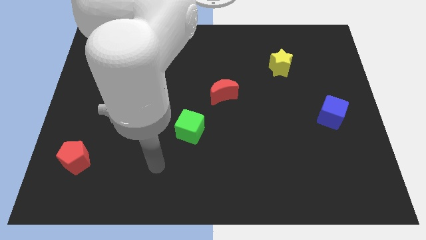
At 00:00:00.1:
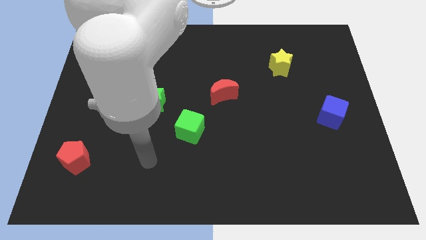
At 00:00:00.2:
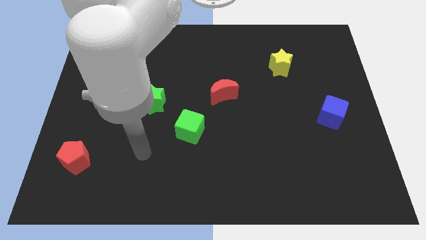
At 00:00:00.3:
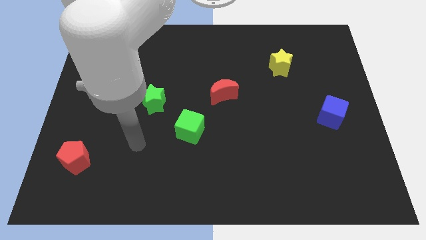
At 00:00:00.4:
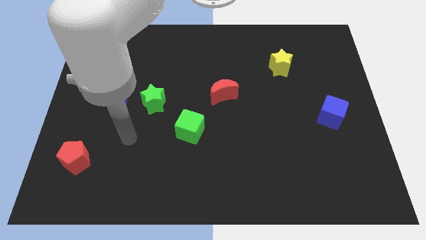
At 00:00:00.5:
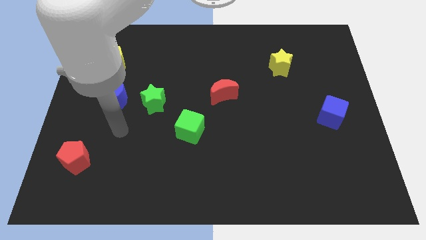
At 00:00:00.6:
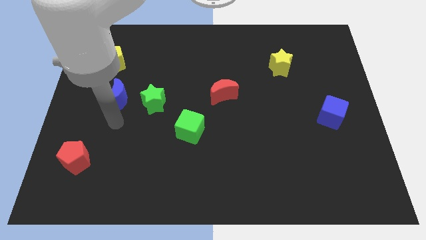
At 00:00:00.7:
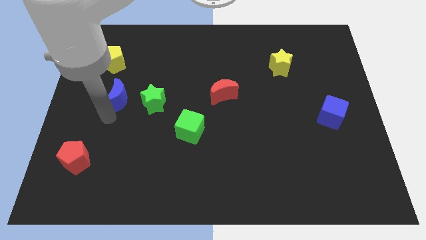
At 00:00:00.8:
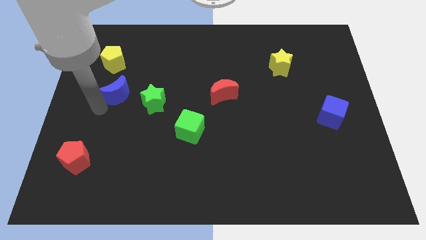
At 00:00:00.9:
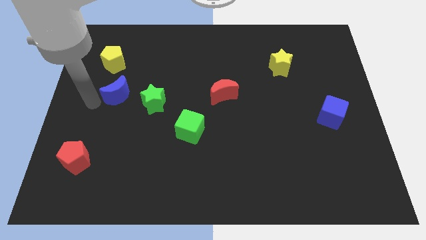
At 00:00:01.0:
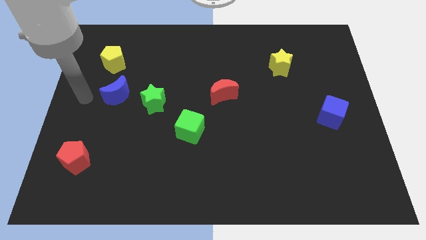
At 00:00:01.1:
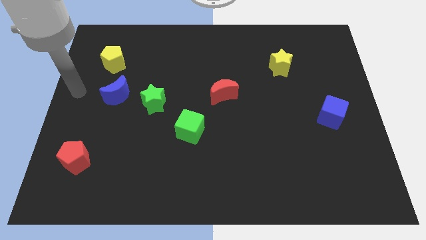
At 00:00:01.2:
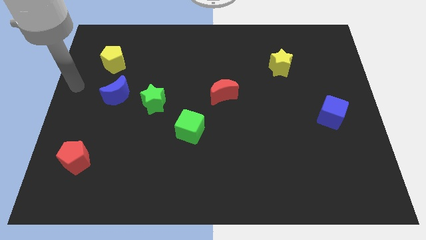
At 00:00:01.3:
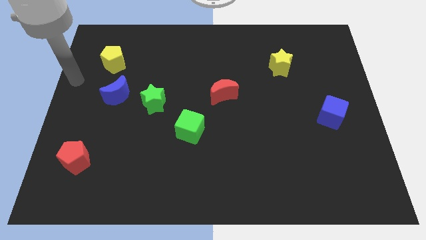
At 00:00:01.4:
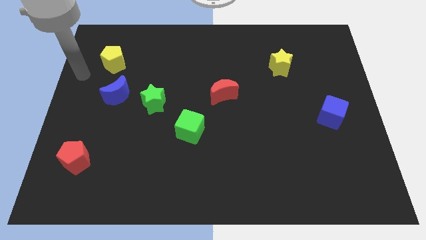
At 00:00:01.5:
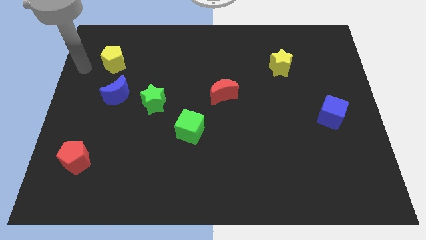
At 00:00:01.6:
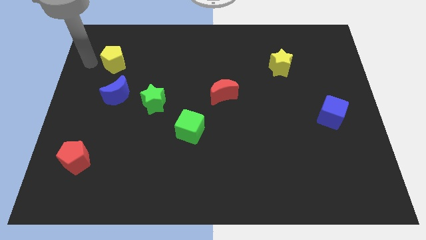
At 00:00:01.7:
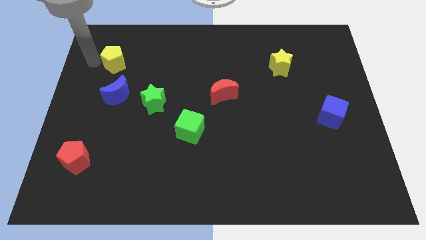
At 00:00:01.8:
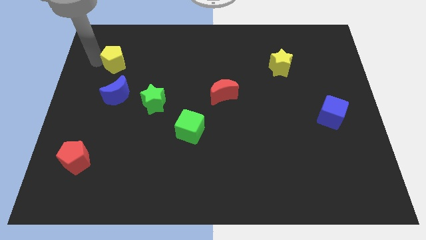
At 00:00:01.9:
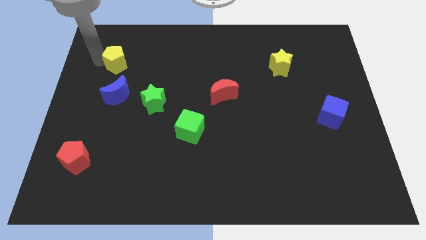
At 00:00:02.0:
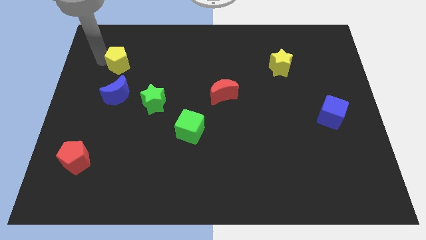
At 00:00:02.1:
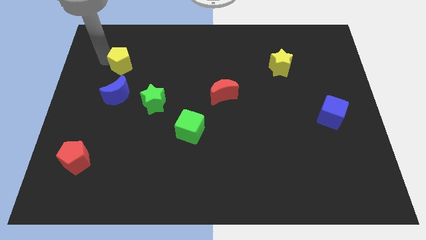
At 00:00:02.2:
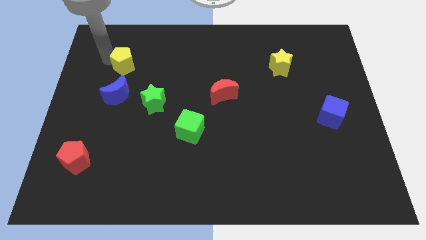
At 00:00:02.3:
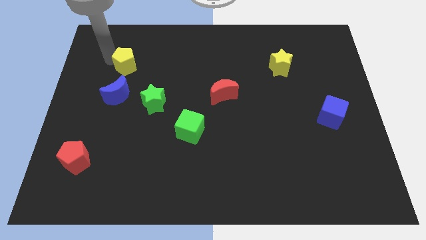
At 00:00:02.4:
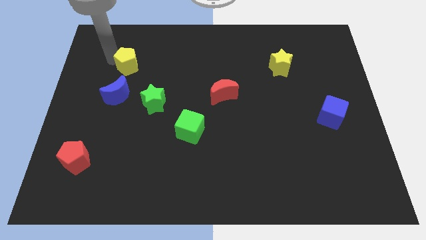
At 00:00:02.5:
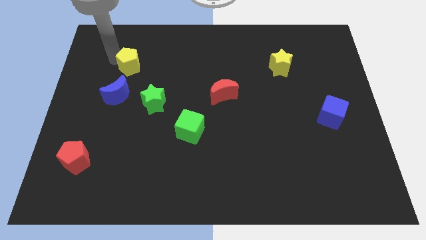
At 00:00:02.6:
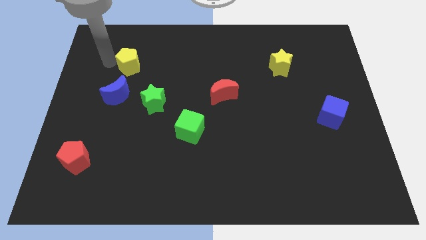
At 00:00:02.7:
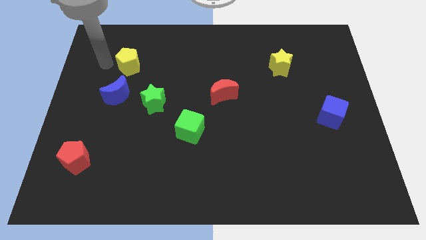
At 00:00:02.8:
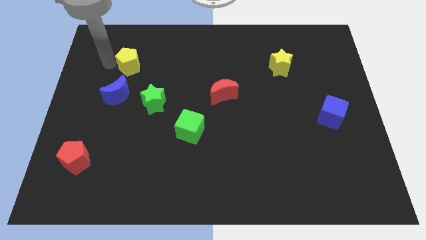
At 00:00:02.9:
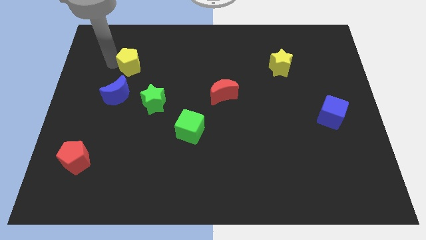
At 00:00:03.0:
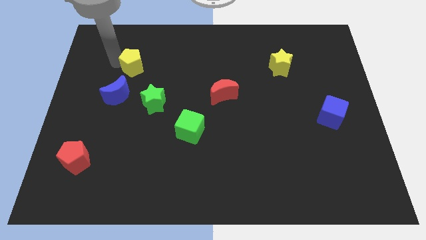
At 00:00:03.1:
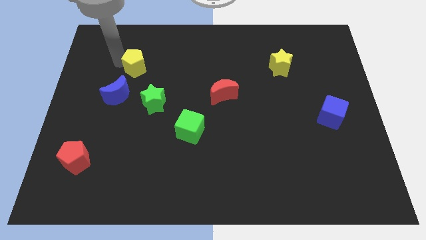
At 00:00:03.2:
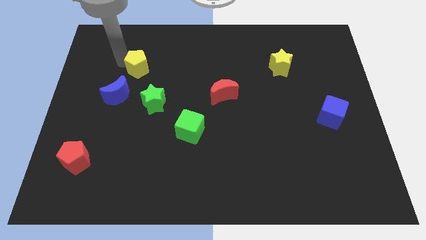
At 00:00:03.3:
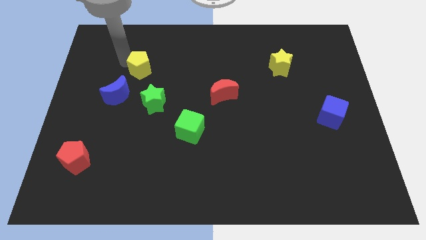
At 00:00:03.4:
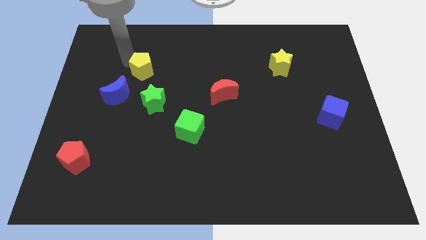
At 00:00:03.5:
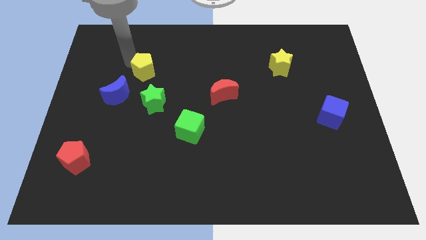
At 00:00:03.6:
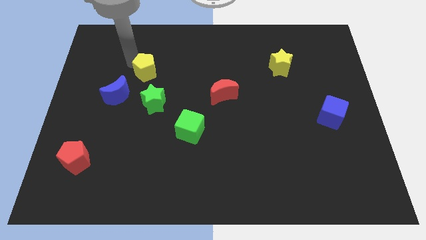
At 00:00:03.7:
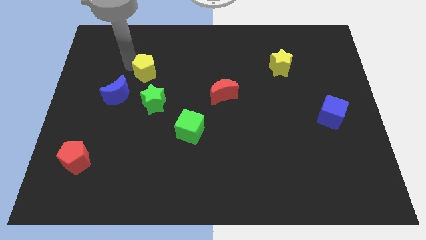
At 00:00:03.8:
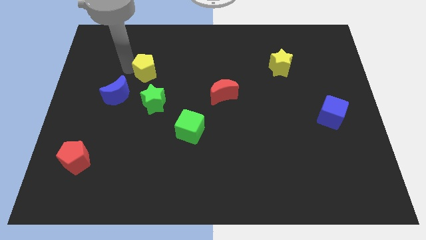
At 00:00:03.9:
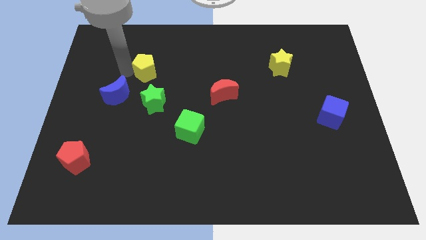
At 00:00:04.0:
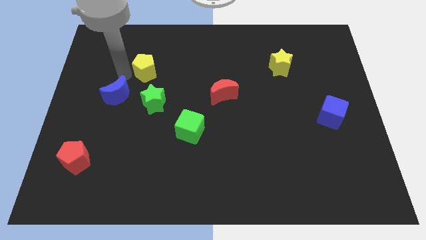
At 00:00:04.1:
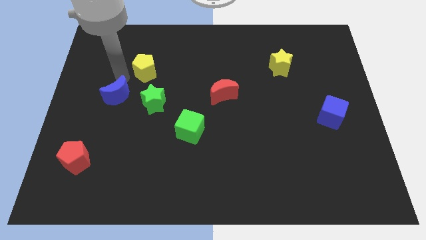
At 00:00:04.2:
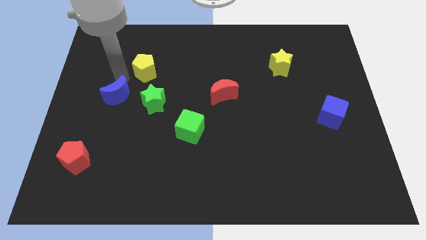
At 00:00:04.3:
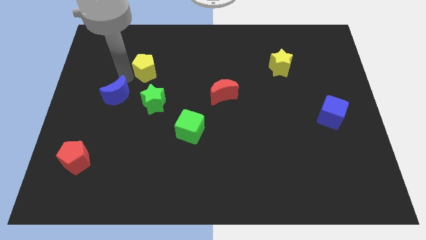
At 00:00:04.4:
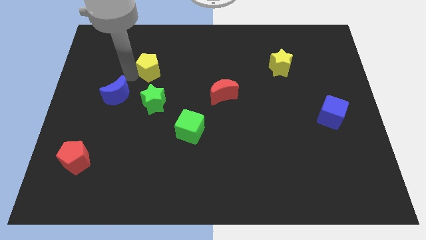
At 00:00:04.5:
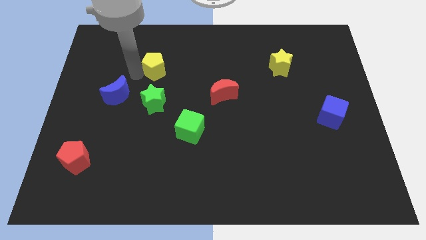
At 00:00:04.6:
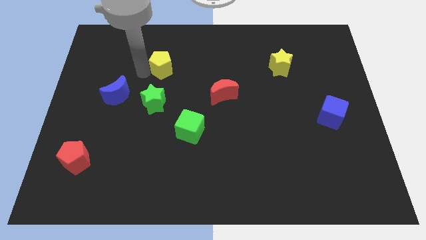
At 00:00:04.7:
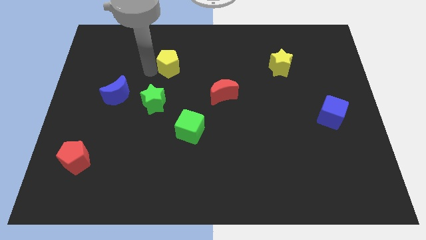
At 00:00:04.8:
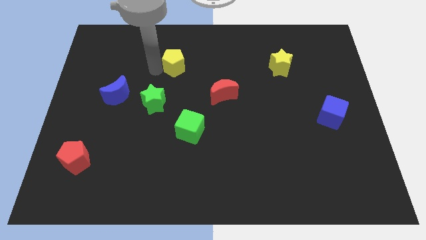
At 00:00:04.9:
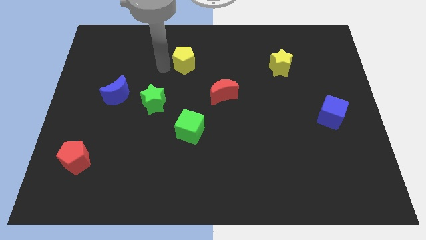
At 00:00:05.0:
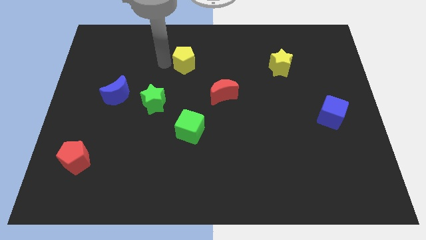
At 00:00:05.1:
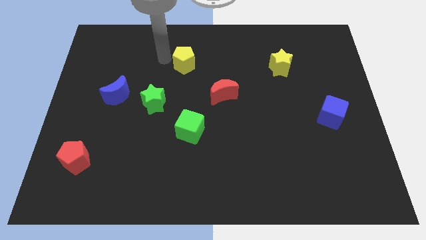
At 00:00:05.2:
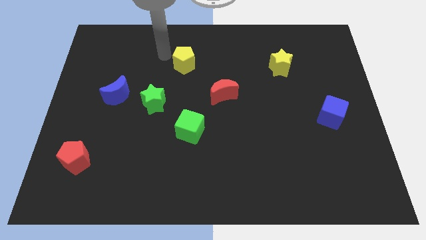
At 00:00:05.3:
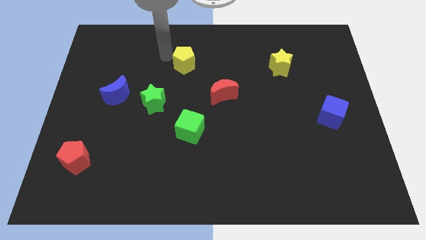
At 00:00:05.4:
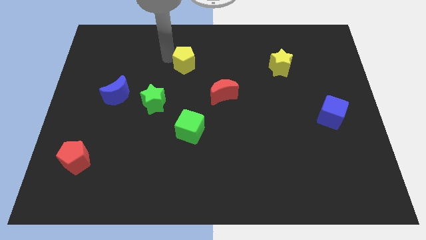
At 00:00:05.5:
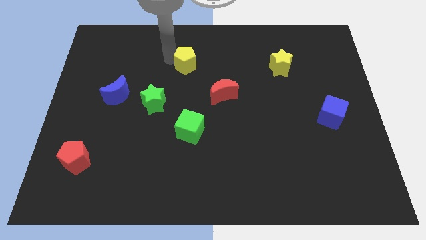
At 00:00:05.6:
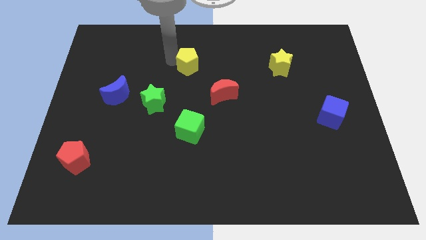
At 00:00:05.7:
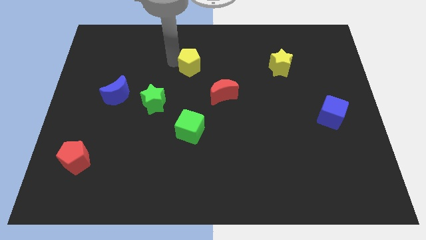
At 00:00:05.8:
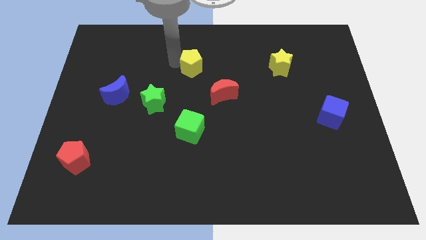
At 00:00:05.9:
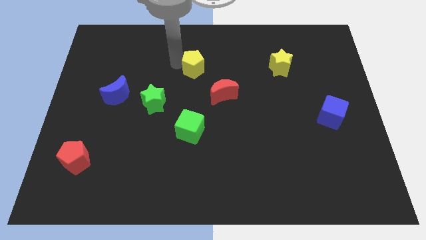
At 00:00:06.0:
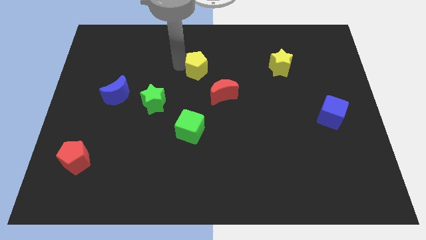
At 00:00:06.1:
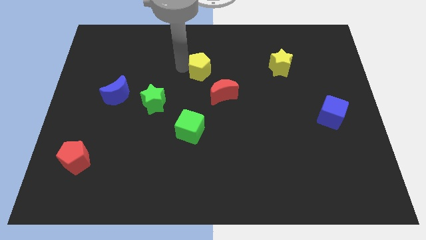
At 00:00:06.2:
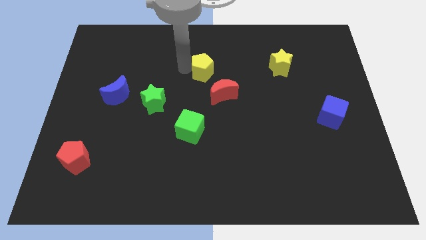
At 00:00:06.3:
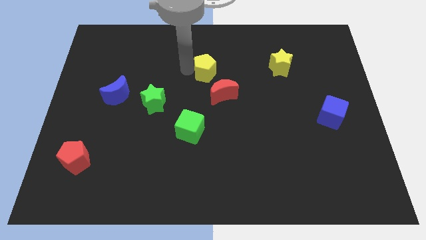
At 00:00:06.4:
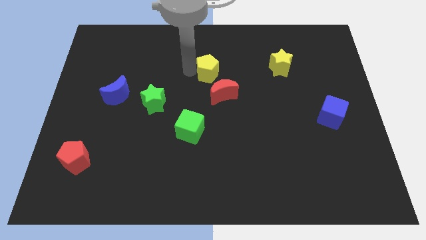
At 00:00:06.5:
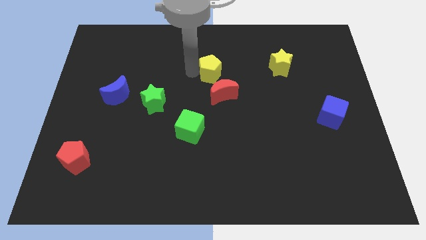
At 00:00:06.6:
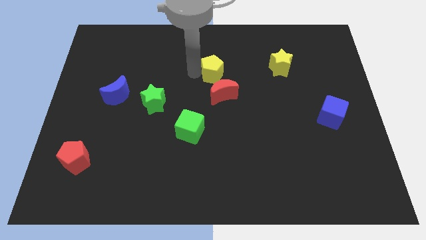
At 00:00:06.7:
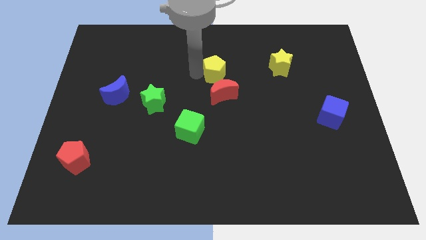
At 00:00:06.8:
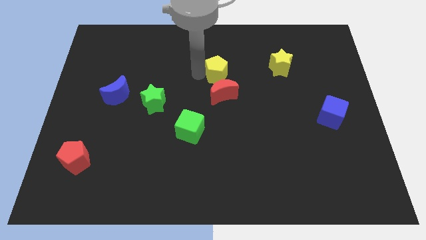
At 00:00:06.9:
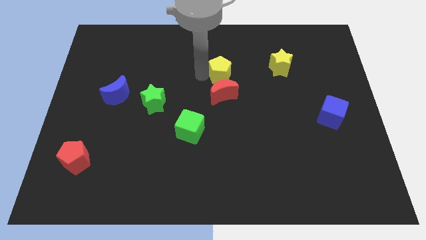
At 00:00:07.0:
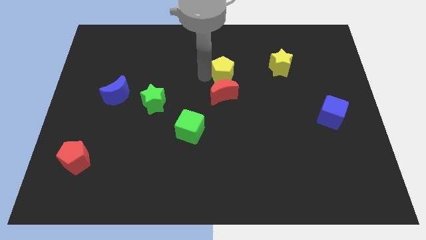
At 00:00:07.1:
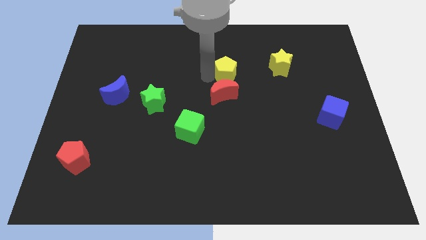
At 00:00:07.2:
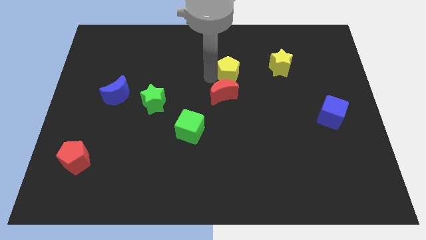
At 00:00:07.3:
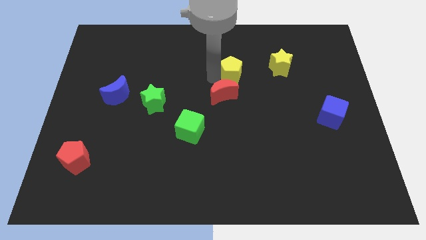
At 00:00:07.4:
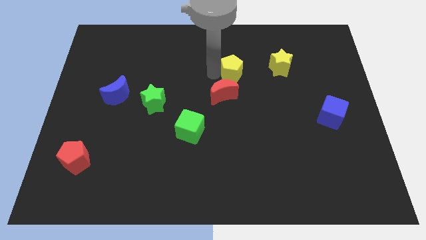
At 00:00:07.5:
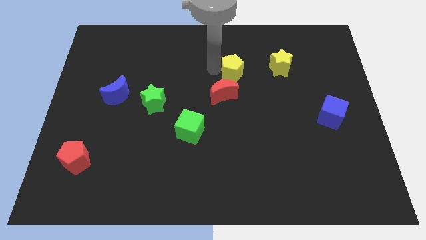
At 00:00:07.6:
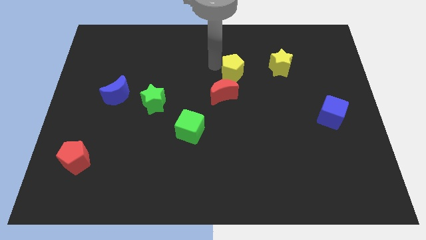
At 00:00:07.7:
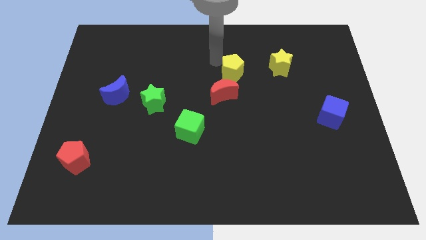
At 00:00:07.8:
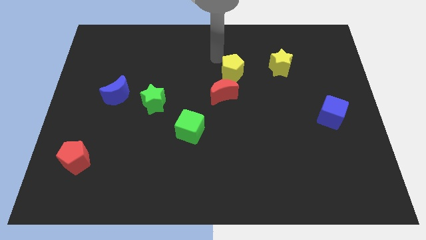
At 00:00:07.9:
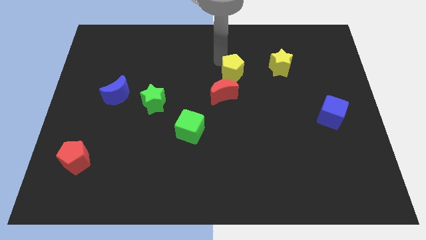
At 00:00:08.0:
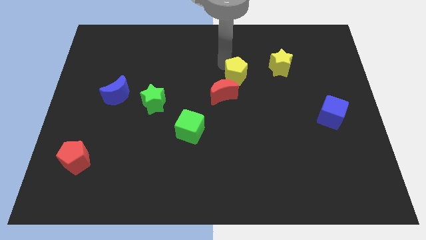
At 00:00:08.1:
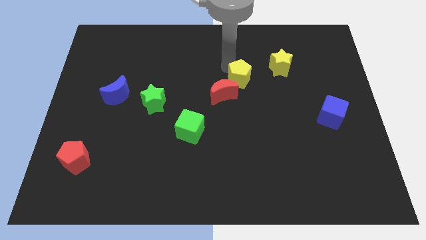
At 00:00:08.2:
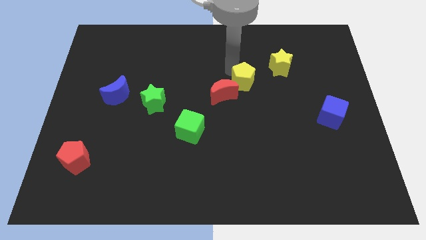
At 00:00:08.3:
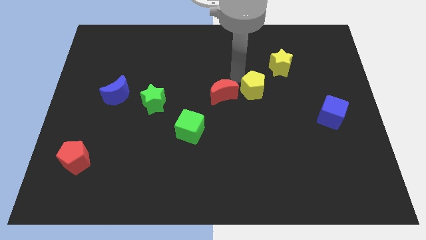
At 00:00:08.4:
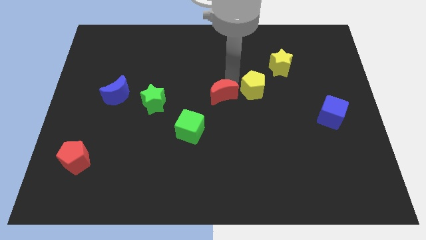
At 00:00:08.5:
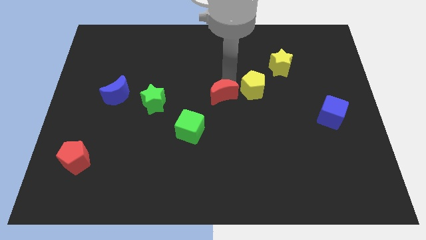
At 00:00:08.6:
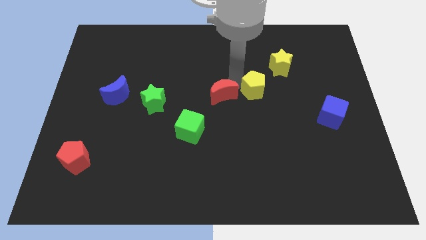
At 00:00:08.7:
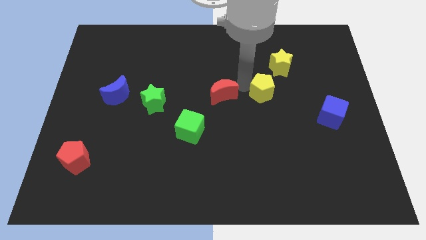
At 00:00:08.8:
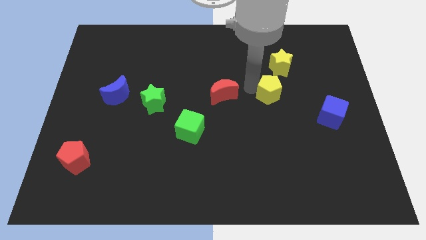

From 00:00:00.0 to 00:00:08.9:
move the yellow pentagon below the yellow star
